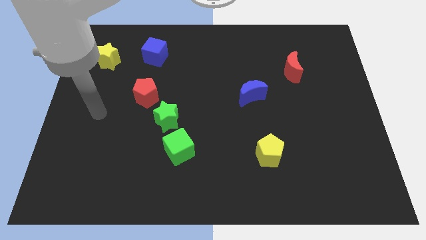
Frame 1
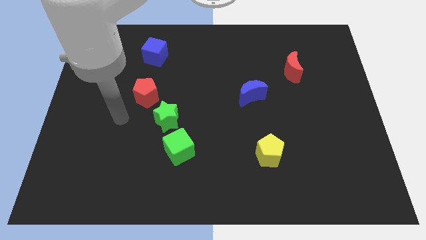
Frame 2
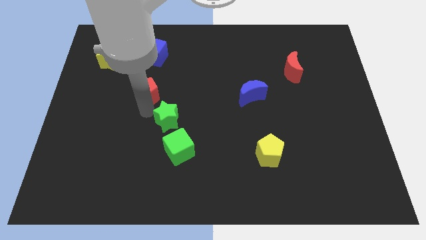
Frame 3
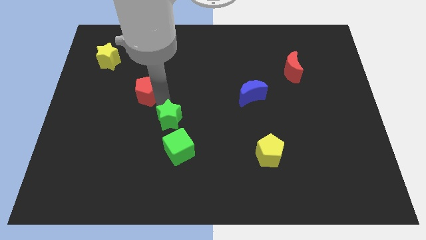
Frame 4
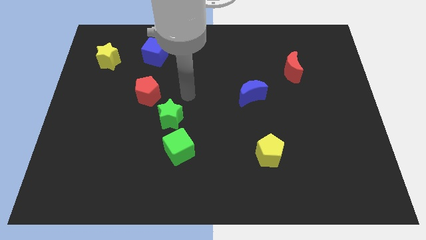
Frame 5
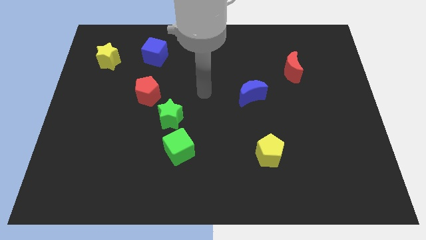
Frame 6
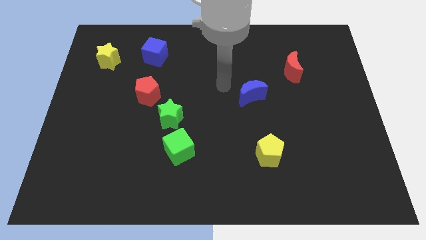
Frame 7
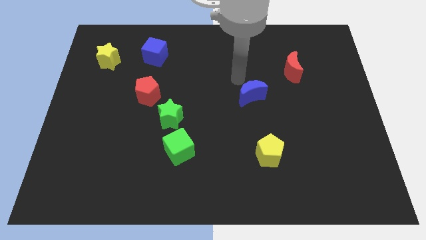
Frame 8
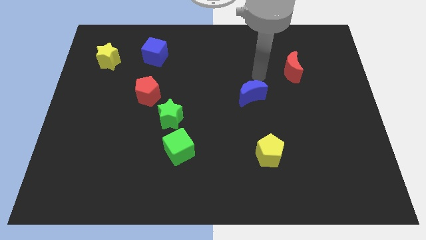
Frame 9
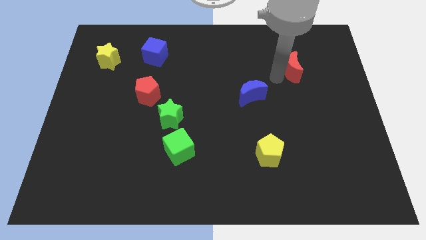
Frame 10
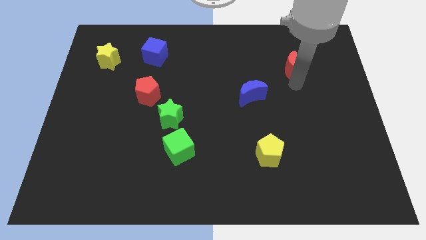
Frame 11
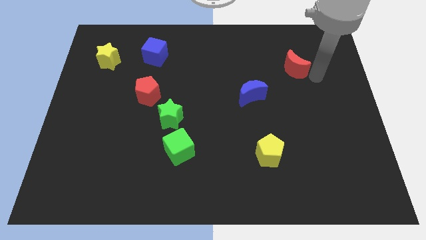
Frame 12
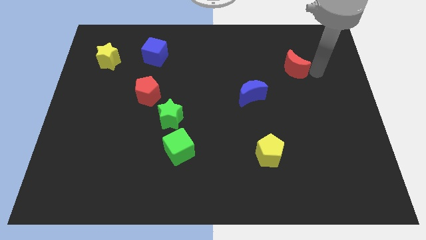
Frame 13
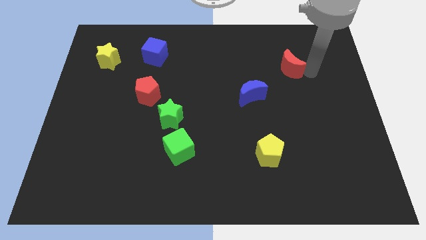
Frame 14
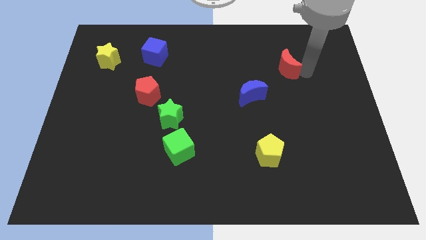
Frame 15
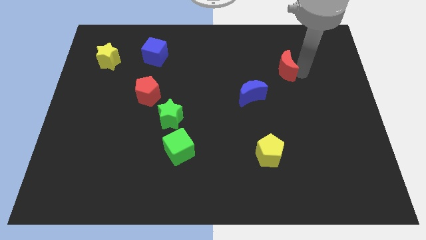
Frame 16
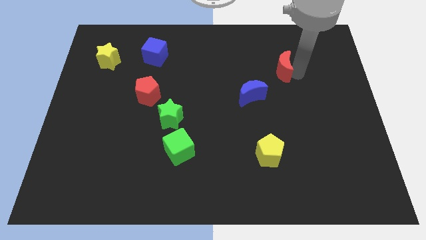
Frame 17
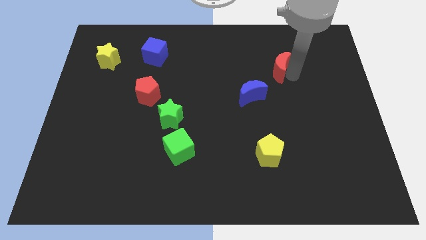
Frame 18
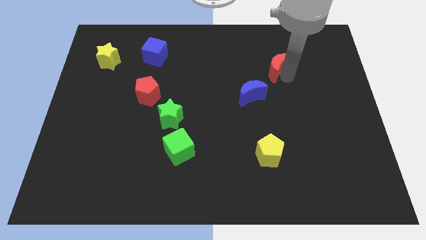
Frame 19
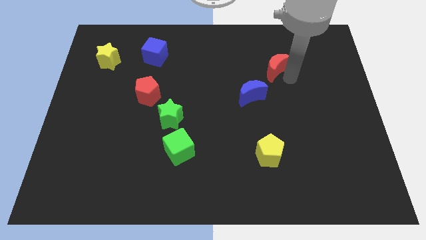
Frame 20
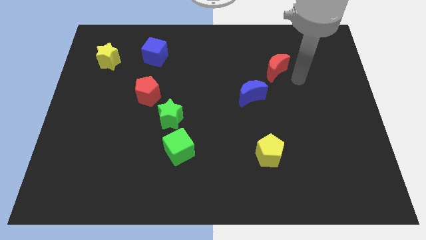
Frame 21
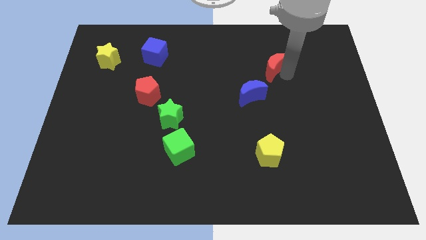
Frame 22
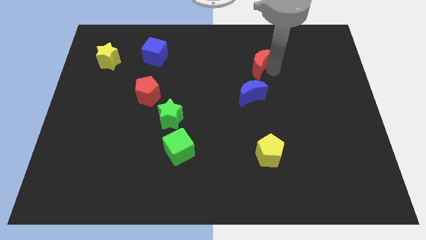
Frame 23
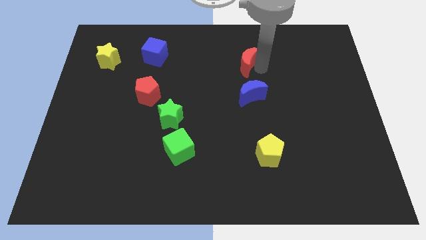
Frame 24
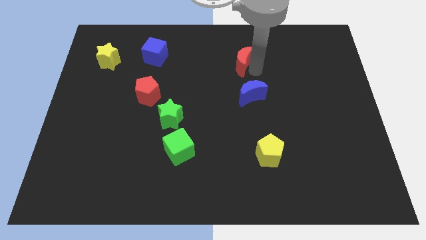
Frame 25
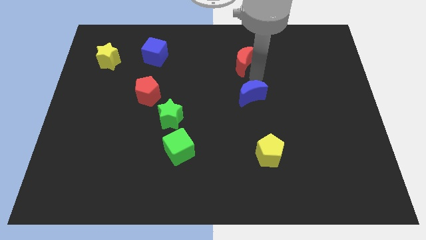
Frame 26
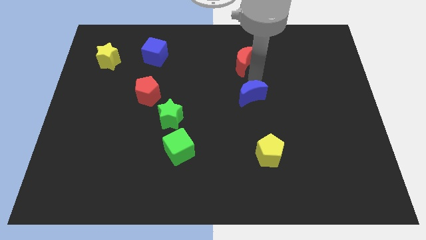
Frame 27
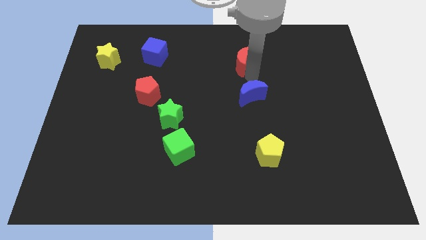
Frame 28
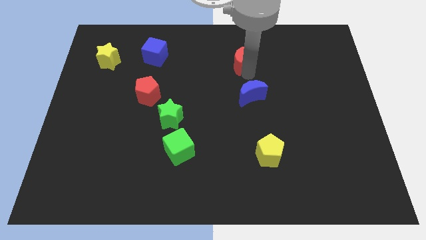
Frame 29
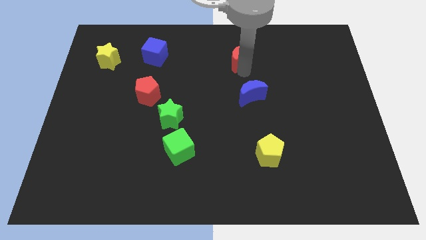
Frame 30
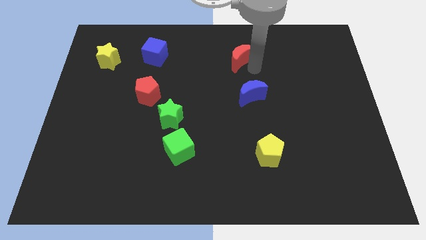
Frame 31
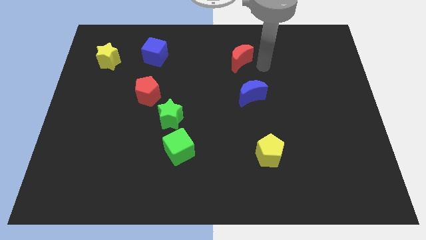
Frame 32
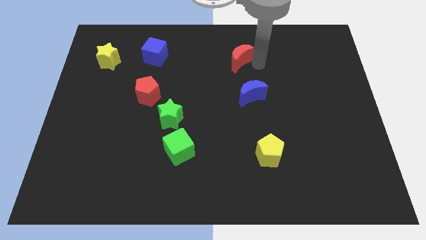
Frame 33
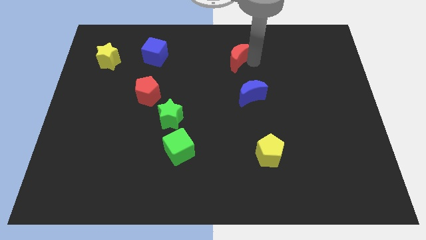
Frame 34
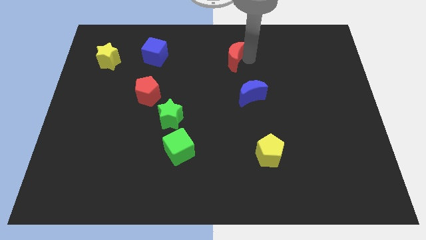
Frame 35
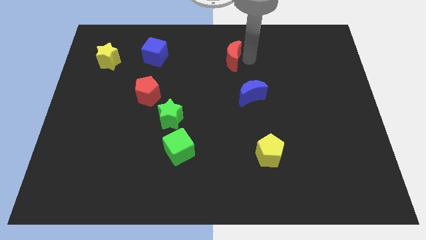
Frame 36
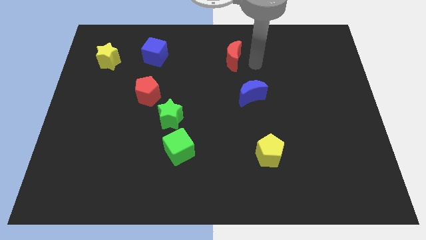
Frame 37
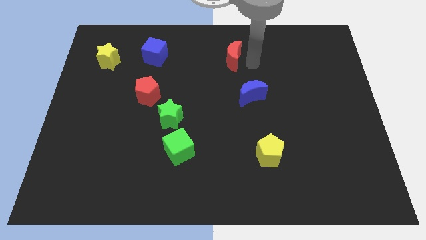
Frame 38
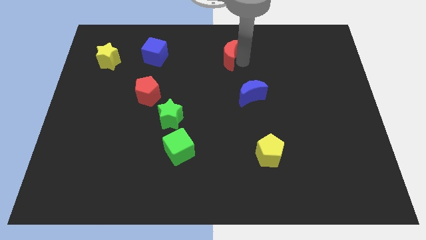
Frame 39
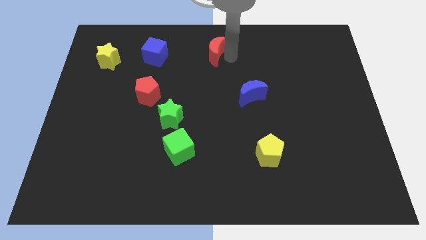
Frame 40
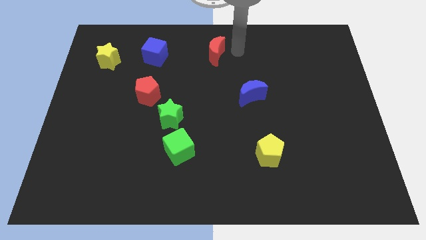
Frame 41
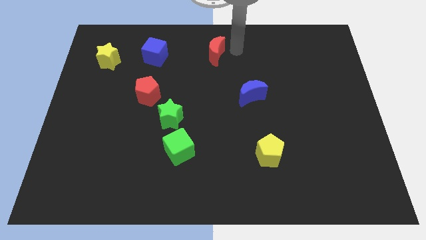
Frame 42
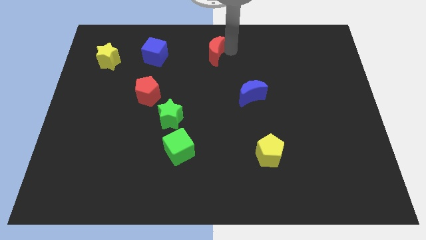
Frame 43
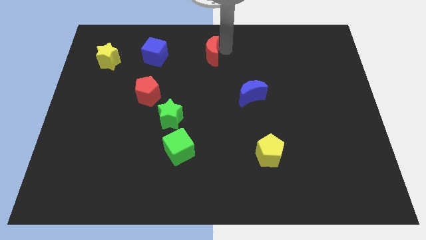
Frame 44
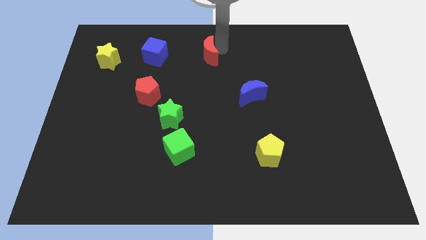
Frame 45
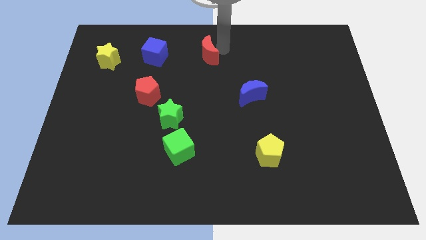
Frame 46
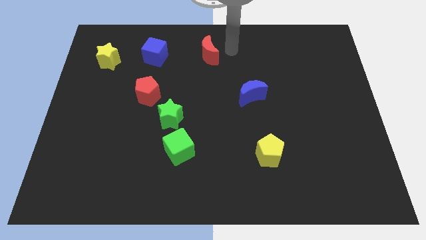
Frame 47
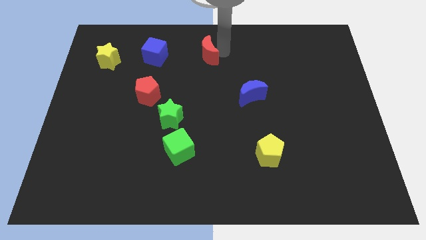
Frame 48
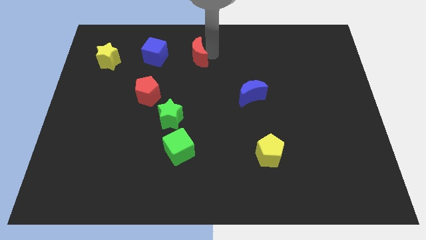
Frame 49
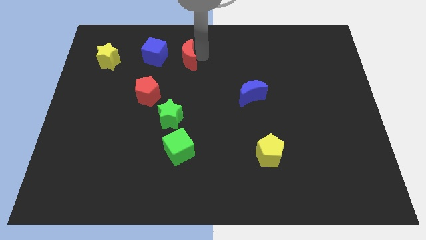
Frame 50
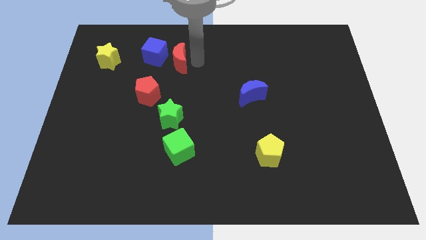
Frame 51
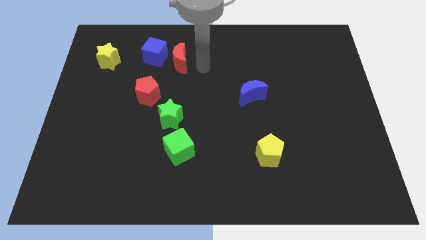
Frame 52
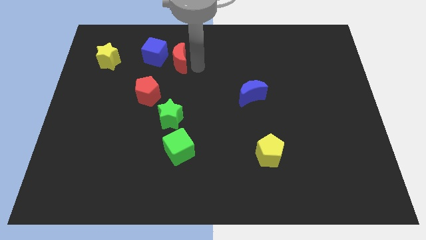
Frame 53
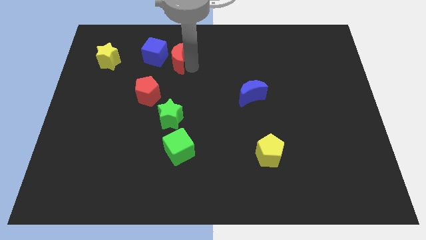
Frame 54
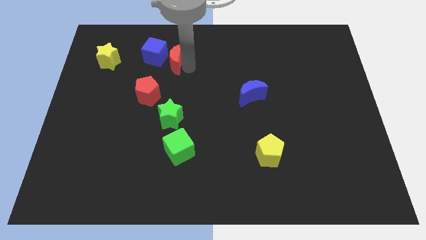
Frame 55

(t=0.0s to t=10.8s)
push the red moon close to the blue cube
